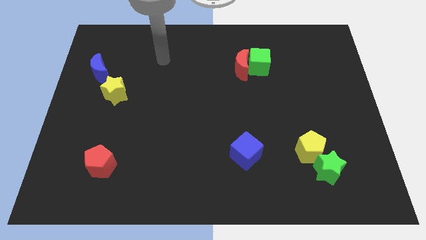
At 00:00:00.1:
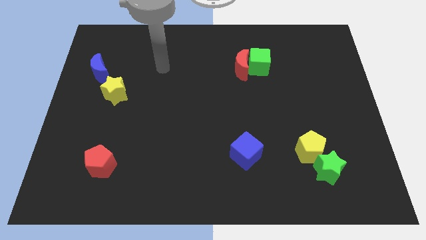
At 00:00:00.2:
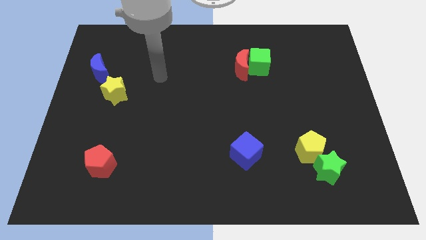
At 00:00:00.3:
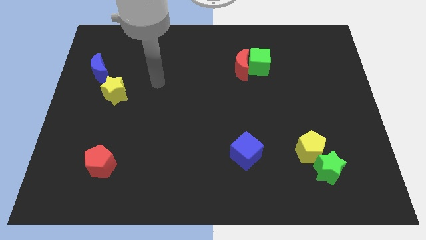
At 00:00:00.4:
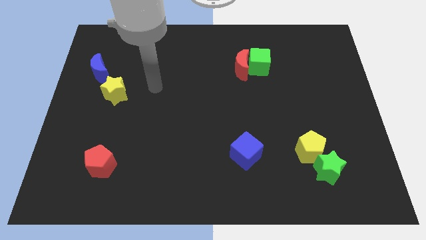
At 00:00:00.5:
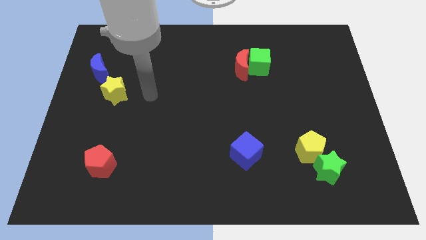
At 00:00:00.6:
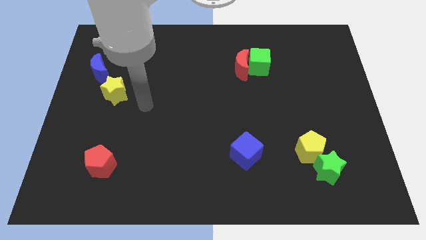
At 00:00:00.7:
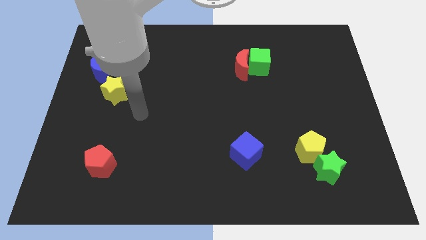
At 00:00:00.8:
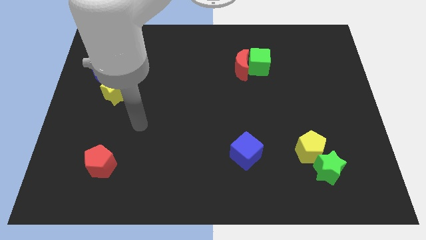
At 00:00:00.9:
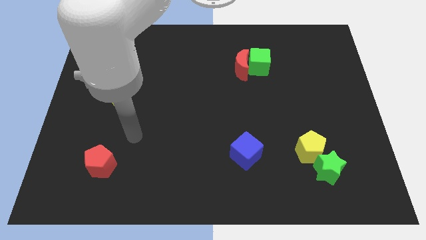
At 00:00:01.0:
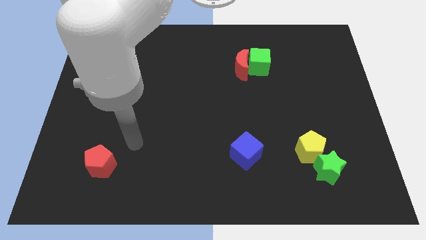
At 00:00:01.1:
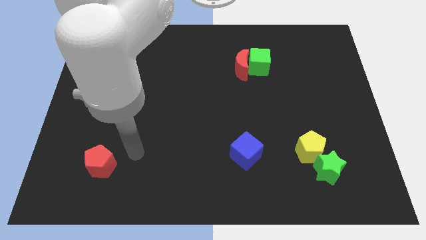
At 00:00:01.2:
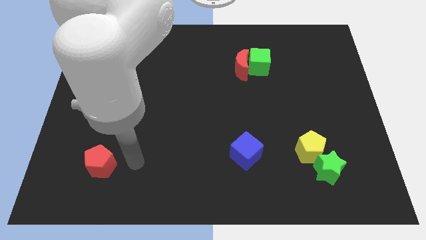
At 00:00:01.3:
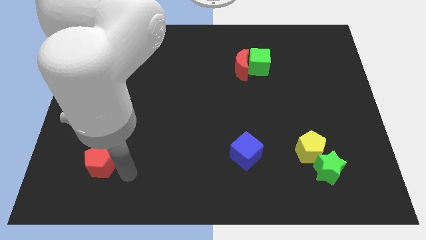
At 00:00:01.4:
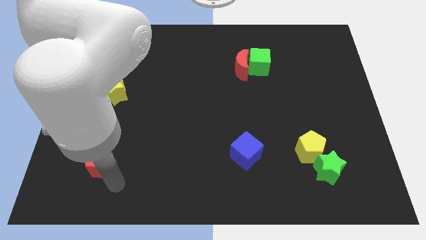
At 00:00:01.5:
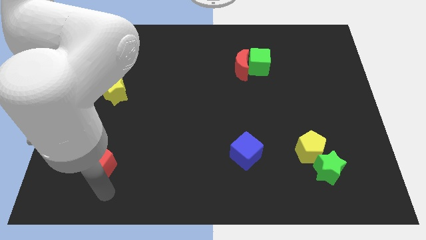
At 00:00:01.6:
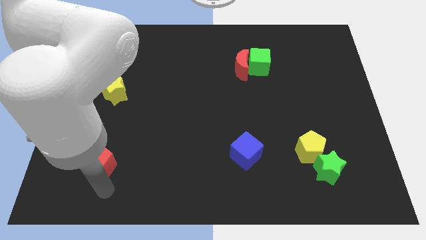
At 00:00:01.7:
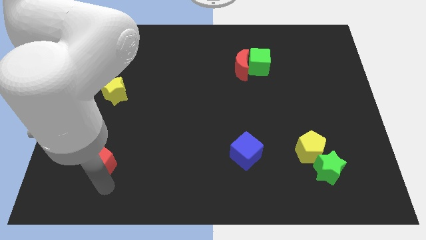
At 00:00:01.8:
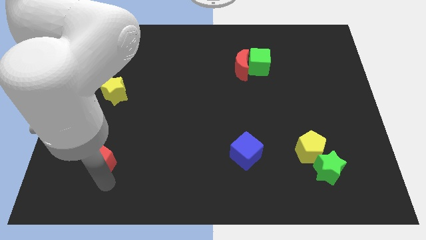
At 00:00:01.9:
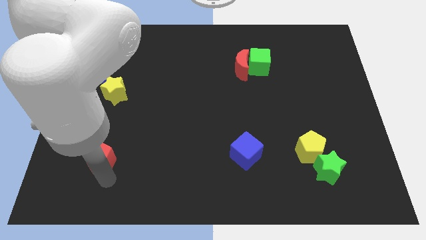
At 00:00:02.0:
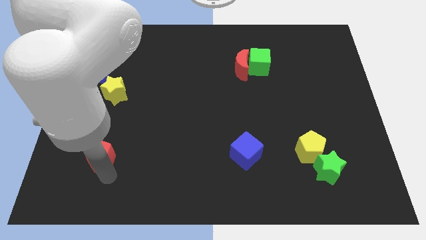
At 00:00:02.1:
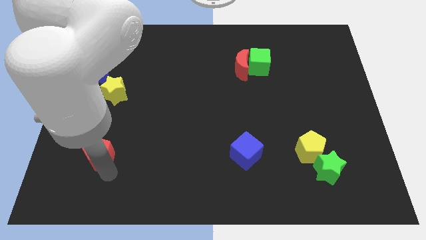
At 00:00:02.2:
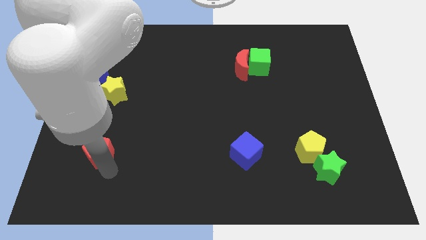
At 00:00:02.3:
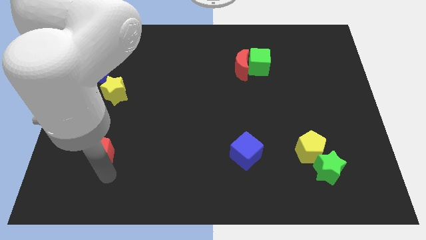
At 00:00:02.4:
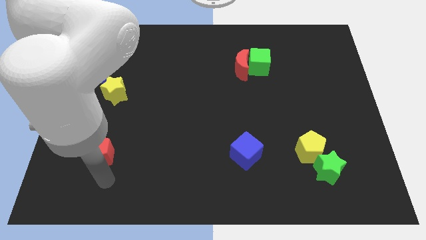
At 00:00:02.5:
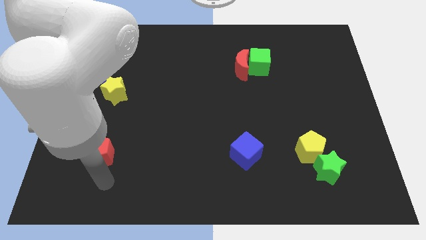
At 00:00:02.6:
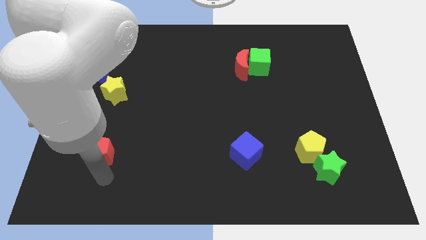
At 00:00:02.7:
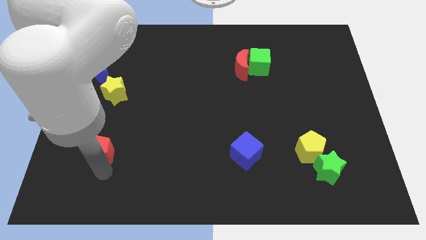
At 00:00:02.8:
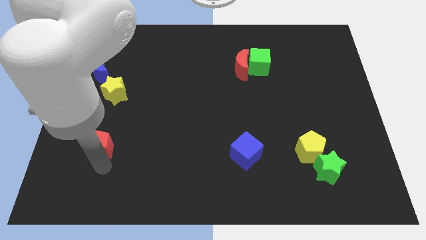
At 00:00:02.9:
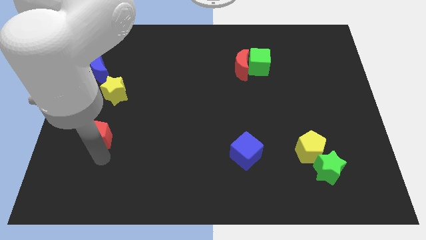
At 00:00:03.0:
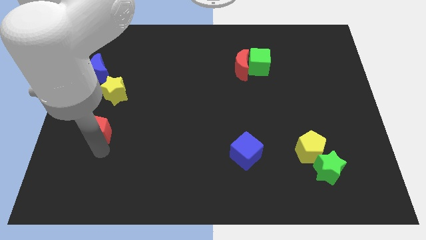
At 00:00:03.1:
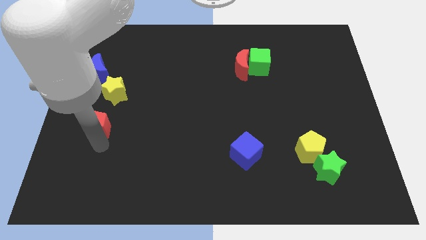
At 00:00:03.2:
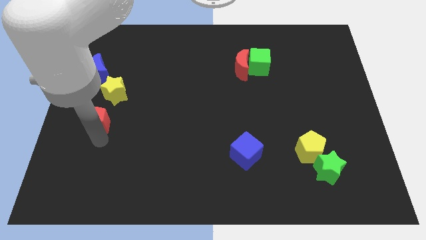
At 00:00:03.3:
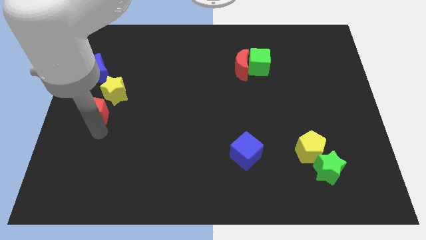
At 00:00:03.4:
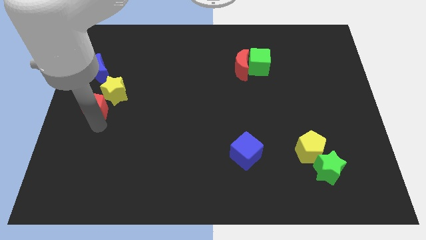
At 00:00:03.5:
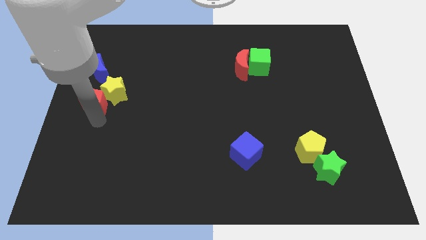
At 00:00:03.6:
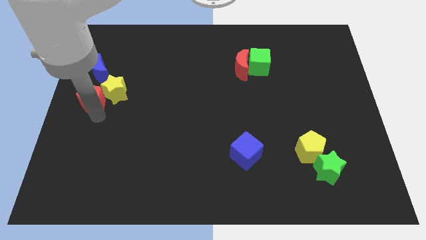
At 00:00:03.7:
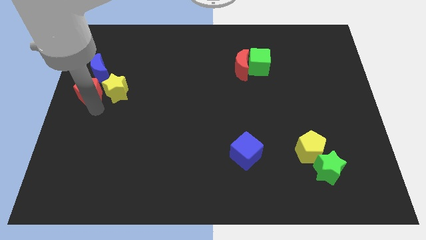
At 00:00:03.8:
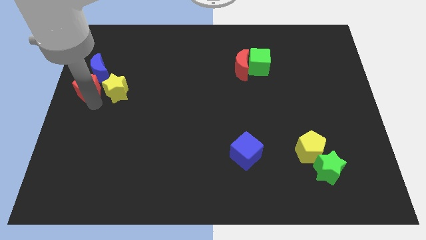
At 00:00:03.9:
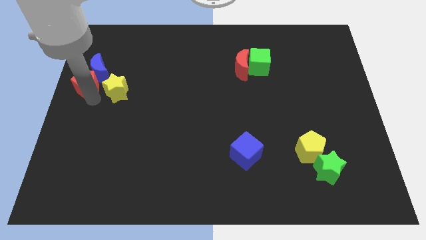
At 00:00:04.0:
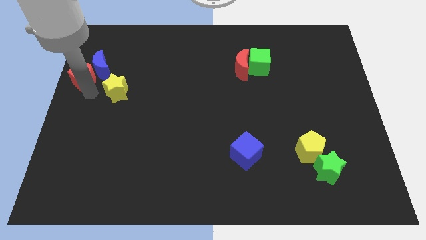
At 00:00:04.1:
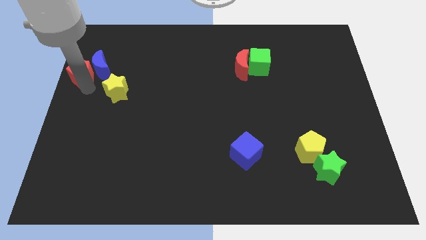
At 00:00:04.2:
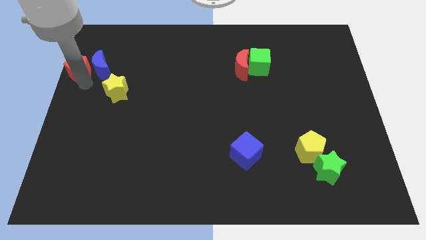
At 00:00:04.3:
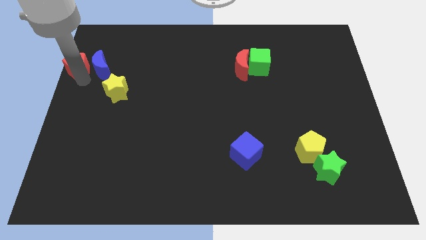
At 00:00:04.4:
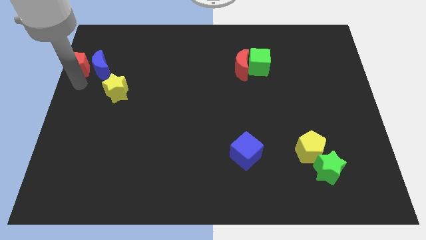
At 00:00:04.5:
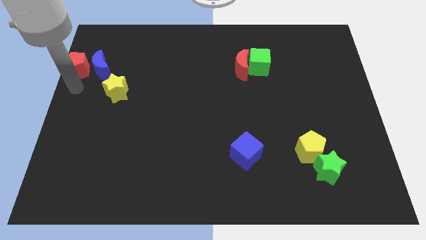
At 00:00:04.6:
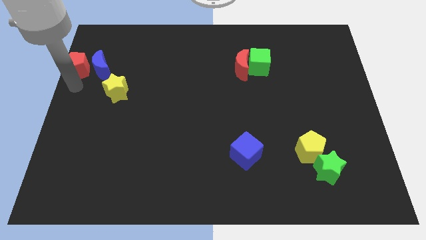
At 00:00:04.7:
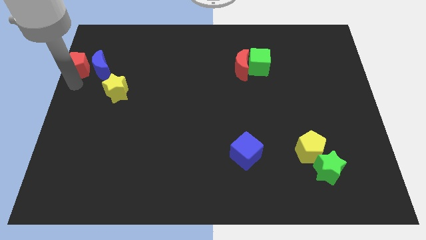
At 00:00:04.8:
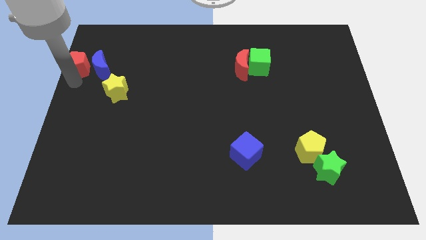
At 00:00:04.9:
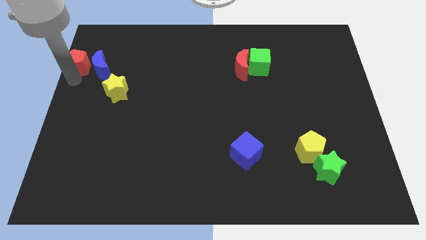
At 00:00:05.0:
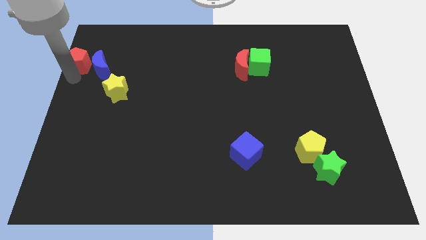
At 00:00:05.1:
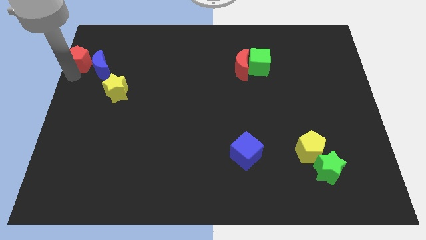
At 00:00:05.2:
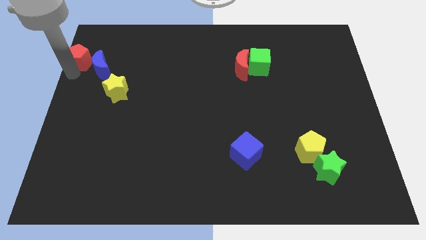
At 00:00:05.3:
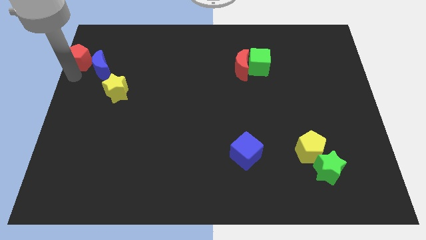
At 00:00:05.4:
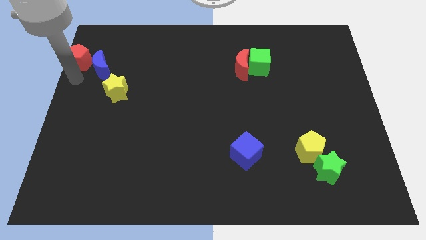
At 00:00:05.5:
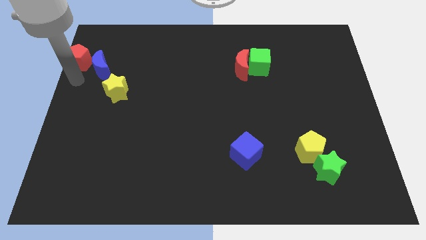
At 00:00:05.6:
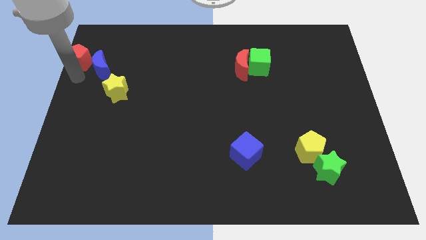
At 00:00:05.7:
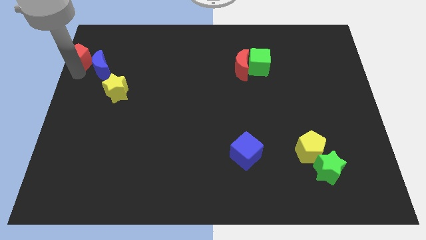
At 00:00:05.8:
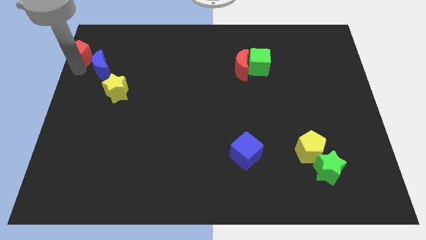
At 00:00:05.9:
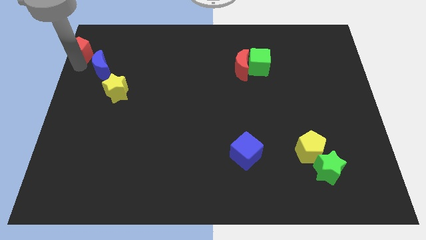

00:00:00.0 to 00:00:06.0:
slide the red pentagon to the top left corner

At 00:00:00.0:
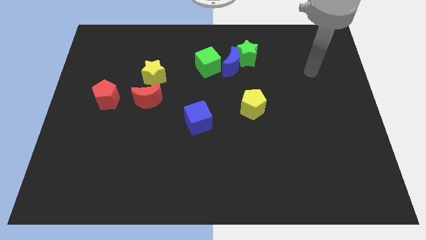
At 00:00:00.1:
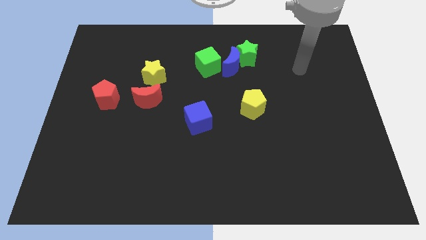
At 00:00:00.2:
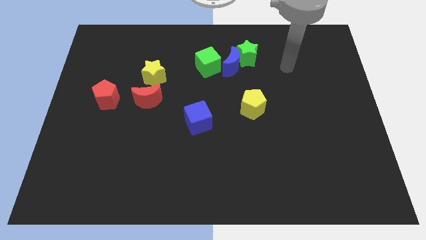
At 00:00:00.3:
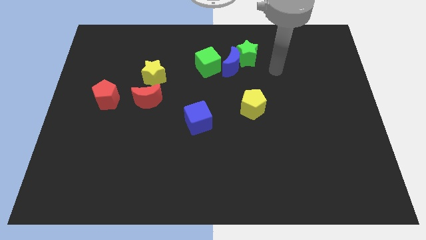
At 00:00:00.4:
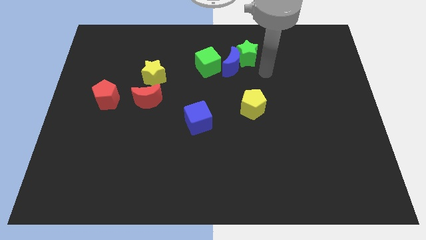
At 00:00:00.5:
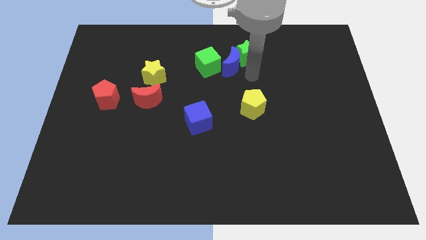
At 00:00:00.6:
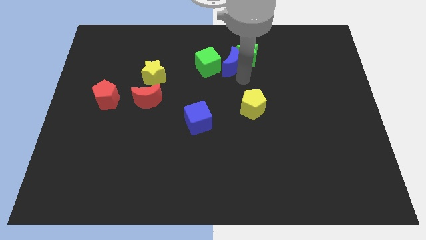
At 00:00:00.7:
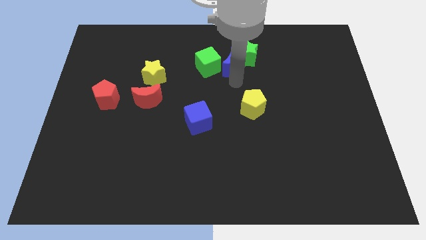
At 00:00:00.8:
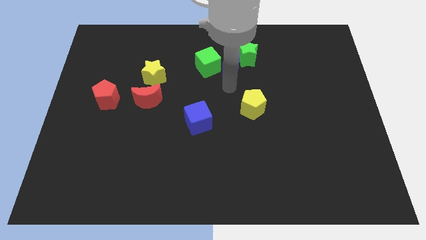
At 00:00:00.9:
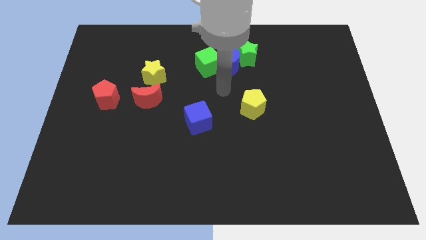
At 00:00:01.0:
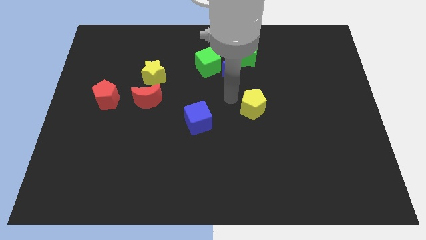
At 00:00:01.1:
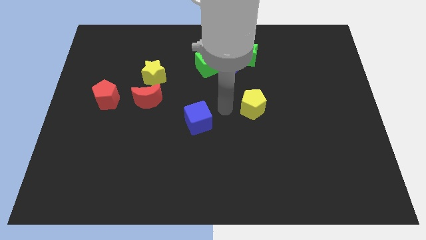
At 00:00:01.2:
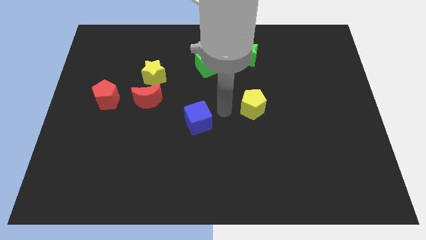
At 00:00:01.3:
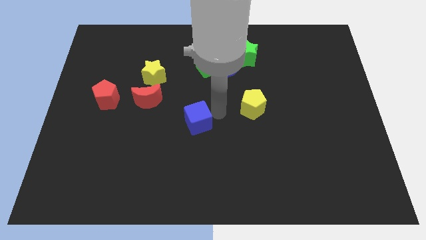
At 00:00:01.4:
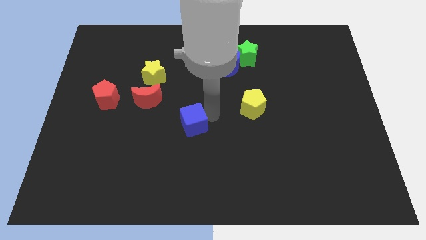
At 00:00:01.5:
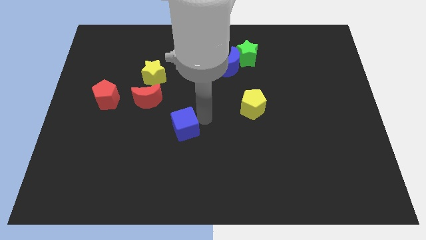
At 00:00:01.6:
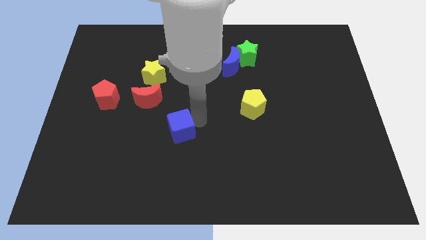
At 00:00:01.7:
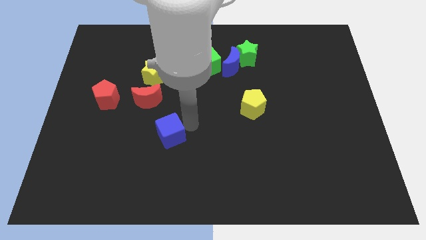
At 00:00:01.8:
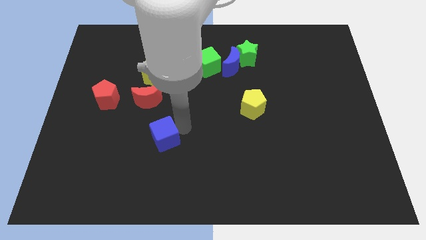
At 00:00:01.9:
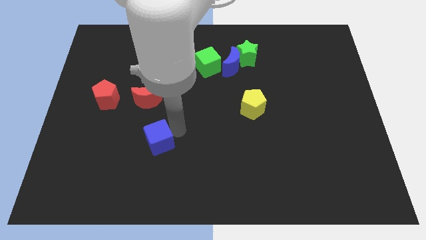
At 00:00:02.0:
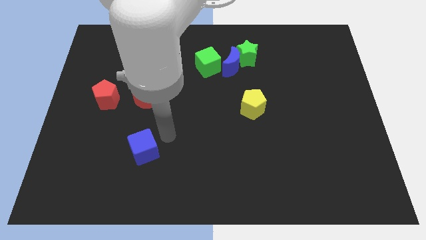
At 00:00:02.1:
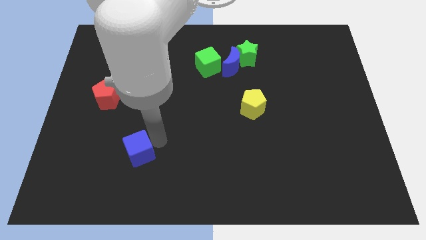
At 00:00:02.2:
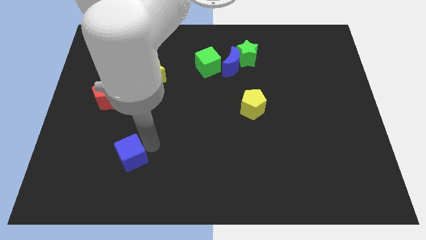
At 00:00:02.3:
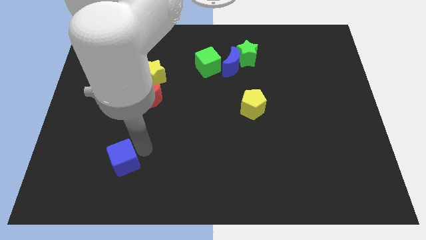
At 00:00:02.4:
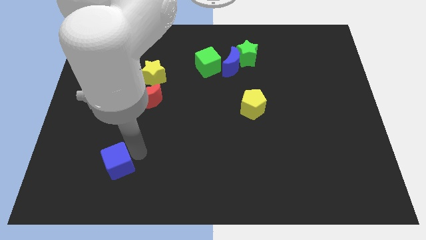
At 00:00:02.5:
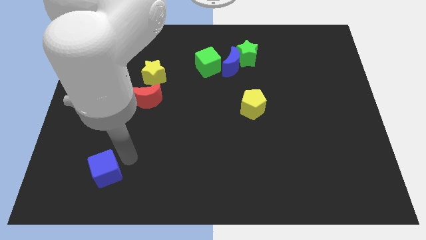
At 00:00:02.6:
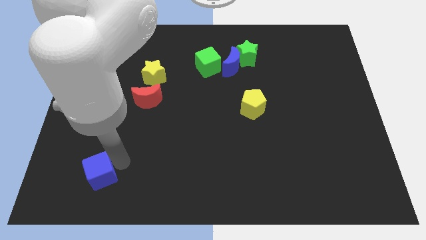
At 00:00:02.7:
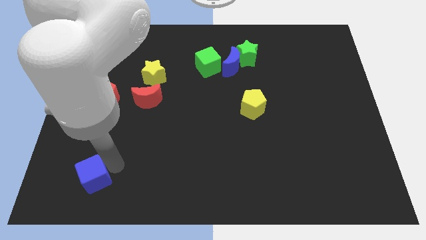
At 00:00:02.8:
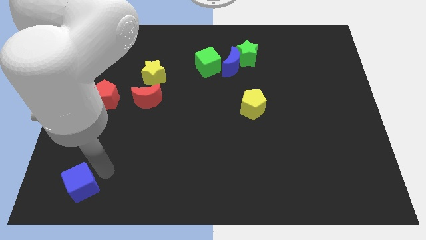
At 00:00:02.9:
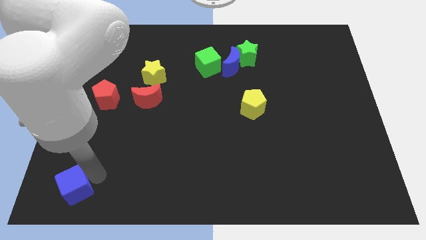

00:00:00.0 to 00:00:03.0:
put the blue cube to the lower left corner
